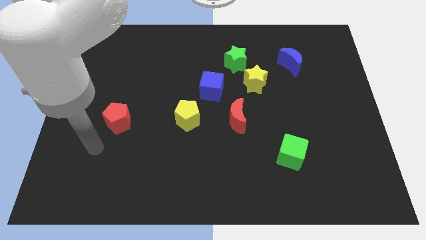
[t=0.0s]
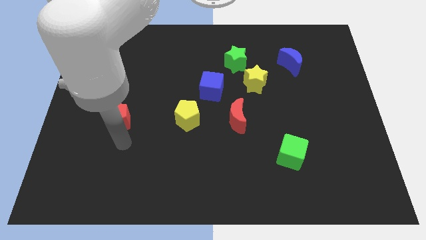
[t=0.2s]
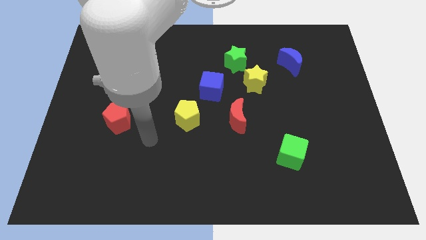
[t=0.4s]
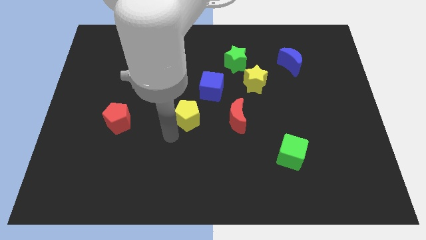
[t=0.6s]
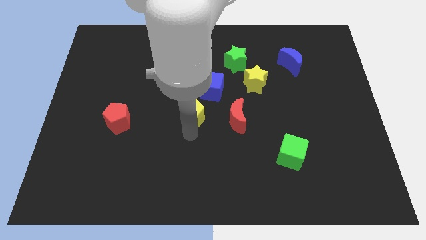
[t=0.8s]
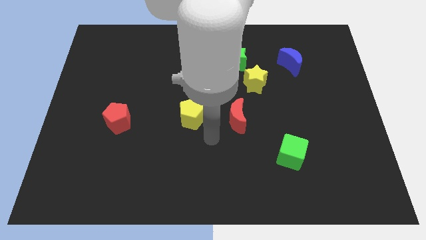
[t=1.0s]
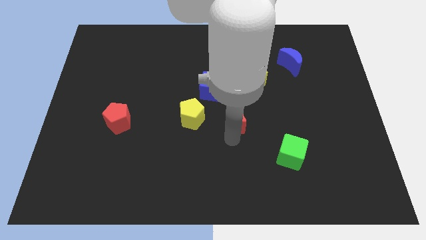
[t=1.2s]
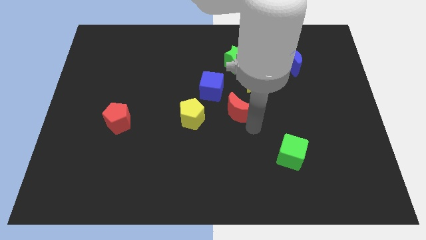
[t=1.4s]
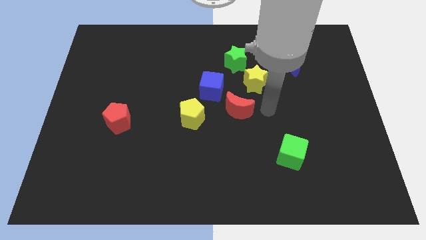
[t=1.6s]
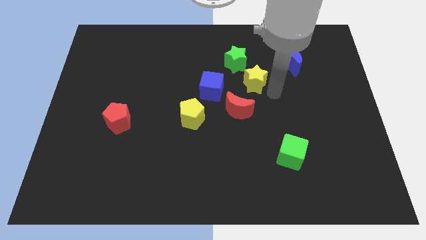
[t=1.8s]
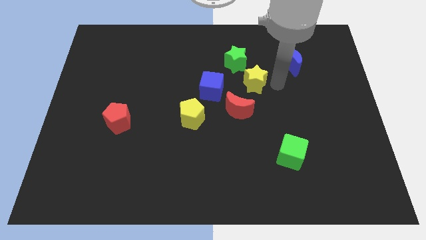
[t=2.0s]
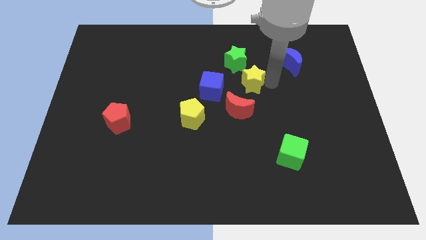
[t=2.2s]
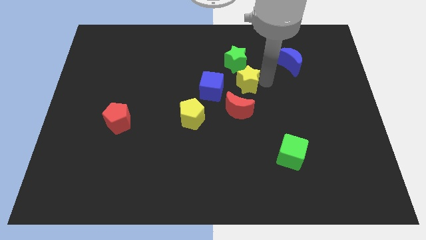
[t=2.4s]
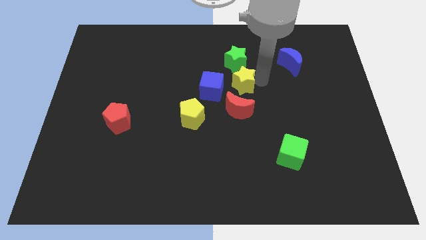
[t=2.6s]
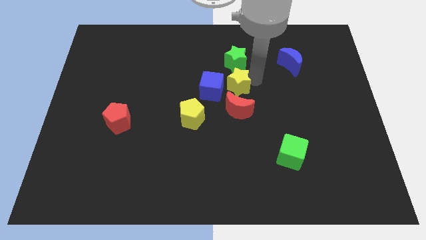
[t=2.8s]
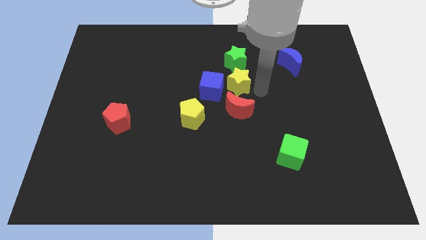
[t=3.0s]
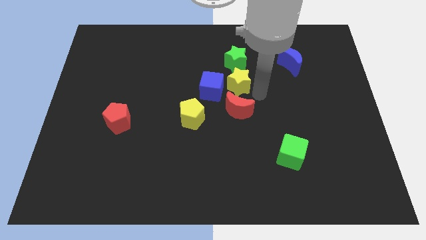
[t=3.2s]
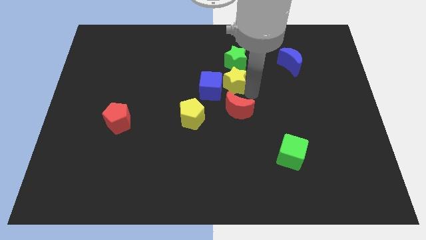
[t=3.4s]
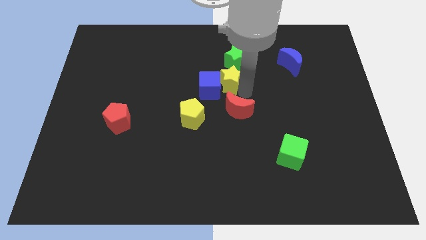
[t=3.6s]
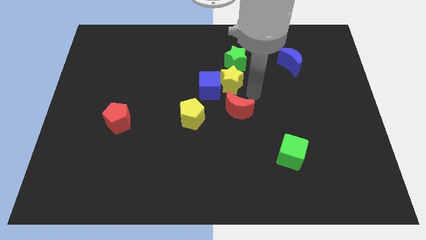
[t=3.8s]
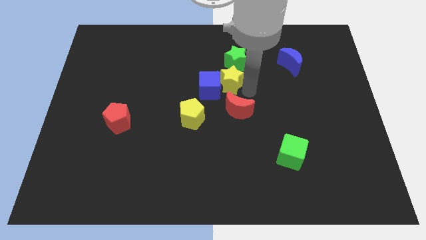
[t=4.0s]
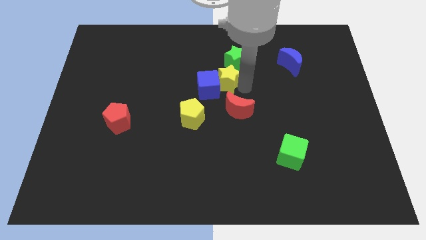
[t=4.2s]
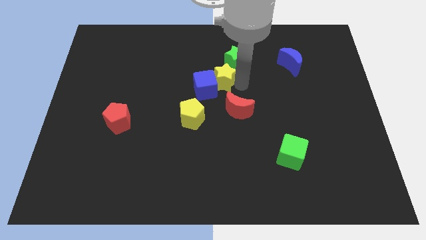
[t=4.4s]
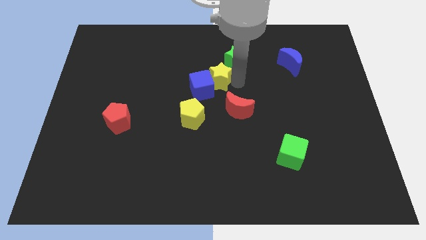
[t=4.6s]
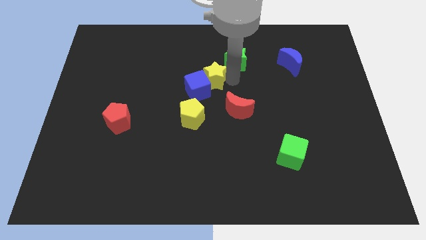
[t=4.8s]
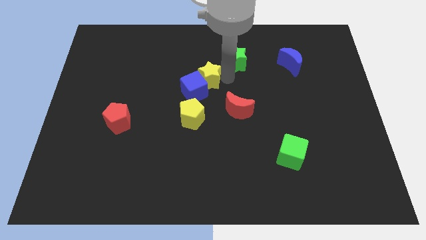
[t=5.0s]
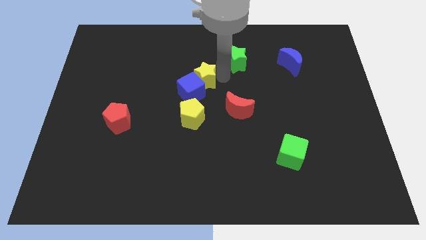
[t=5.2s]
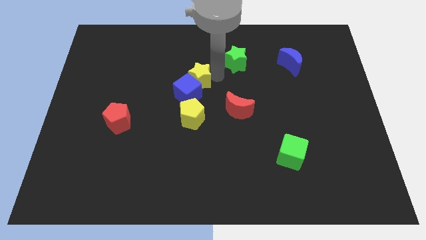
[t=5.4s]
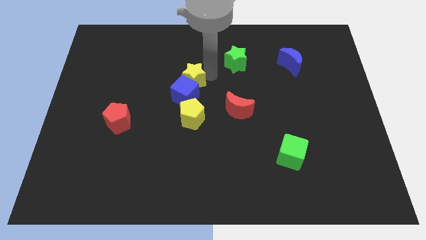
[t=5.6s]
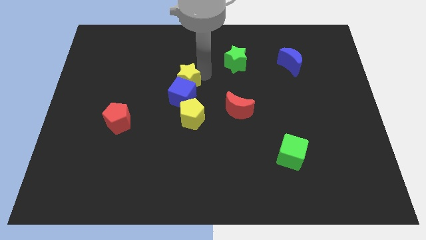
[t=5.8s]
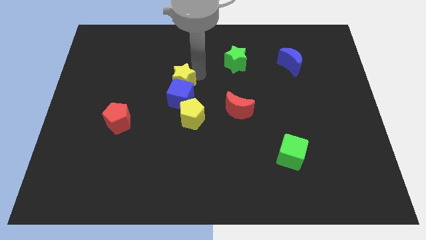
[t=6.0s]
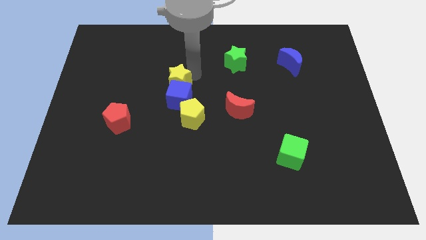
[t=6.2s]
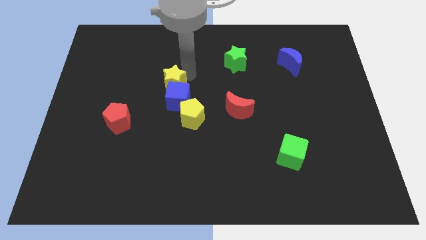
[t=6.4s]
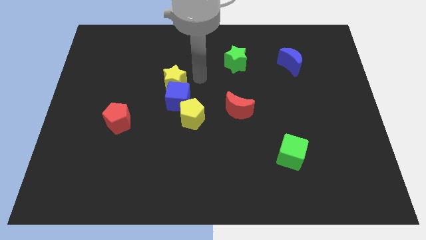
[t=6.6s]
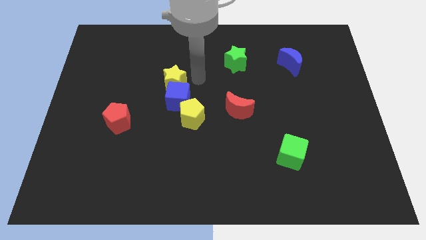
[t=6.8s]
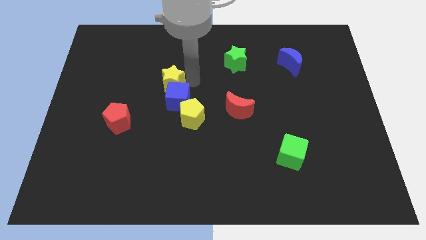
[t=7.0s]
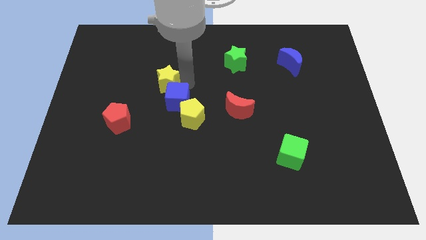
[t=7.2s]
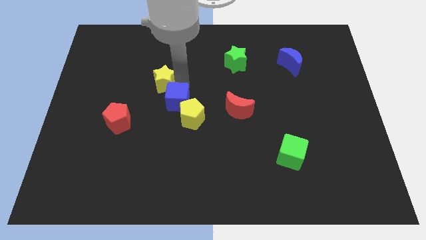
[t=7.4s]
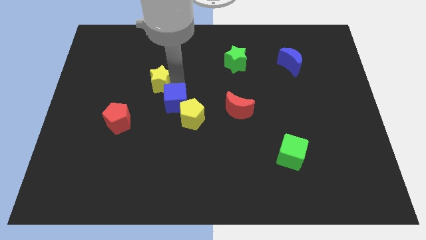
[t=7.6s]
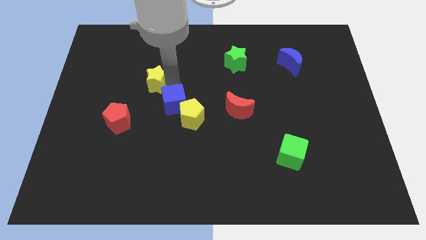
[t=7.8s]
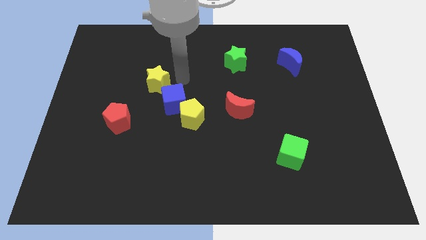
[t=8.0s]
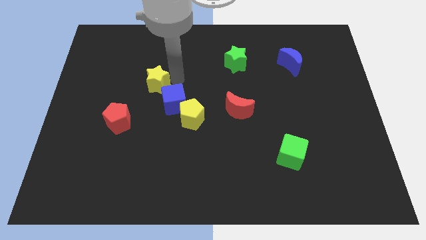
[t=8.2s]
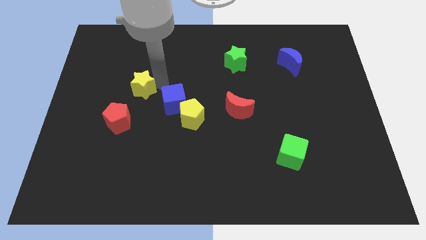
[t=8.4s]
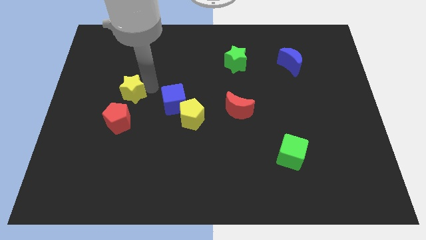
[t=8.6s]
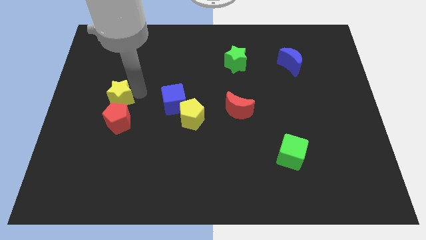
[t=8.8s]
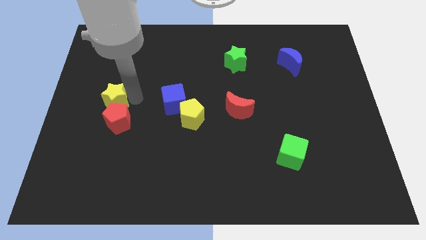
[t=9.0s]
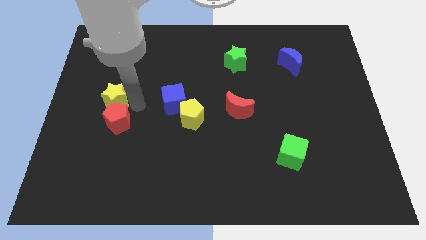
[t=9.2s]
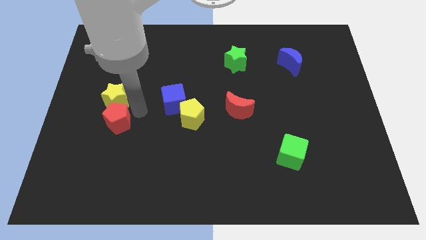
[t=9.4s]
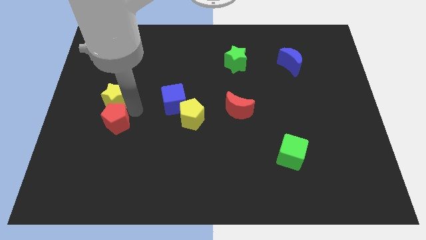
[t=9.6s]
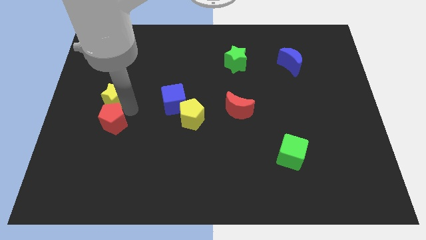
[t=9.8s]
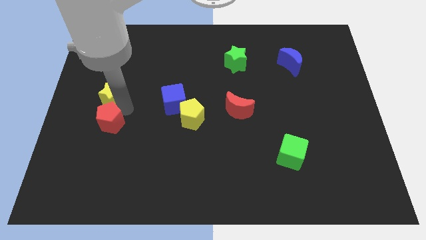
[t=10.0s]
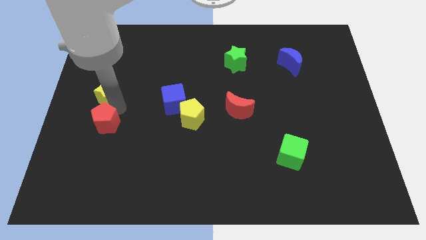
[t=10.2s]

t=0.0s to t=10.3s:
put the yellow star to the left side of the board
